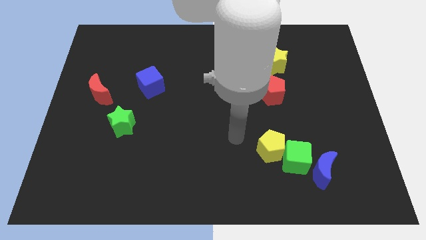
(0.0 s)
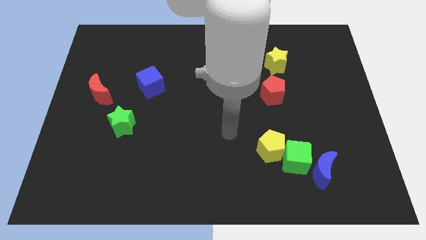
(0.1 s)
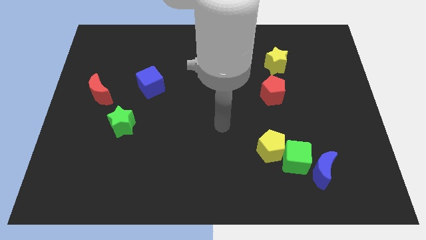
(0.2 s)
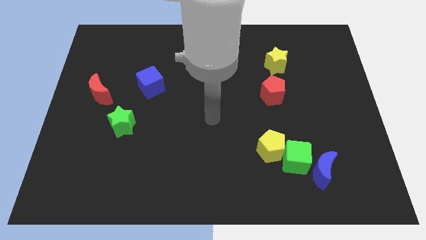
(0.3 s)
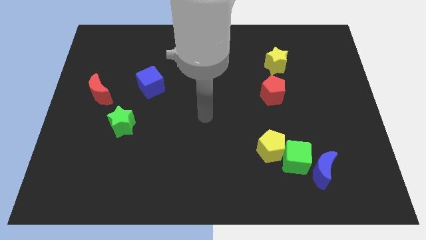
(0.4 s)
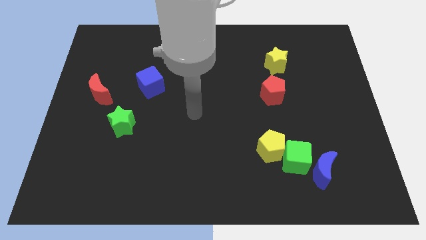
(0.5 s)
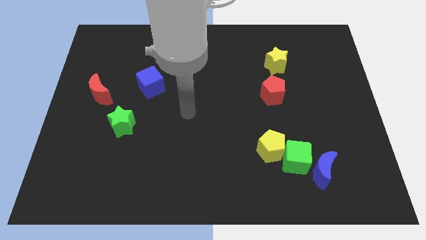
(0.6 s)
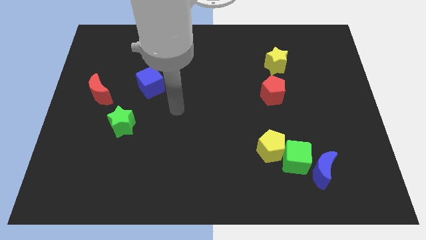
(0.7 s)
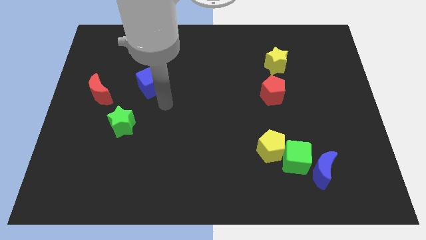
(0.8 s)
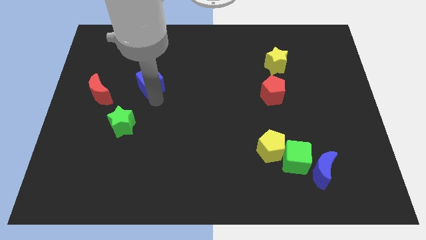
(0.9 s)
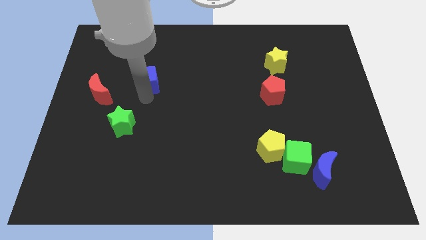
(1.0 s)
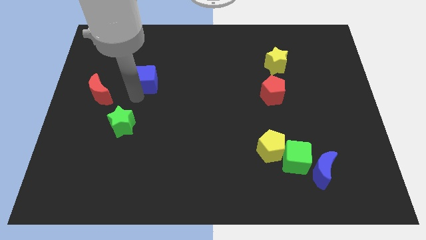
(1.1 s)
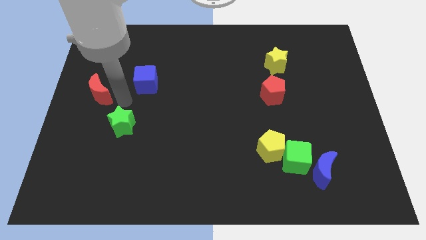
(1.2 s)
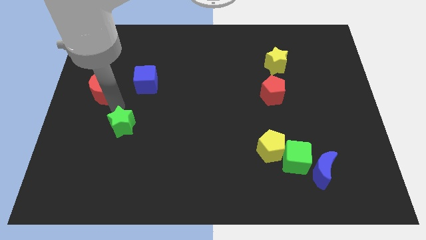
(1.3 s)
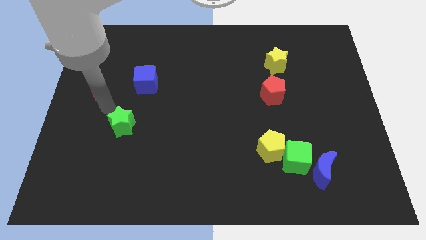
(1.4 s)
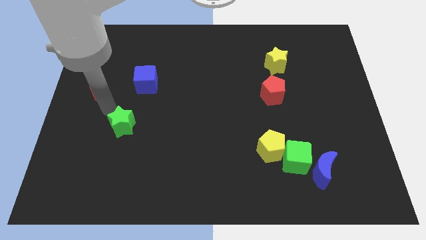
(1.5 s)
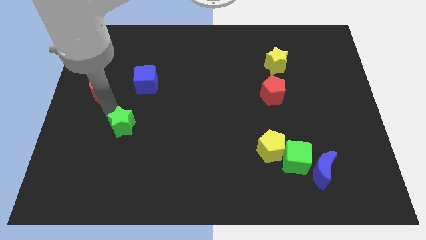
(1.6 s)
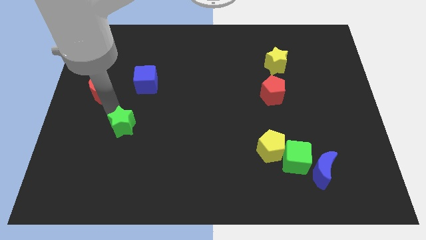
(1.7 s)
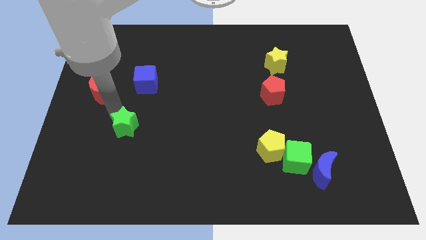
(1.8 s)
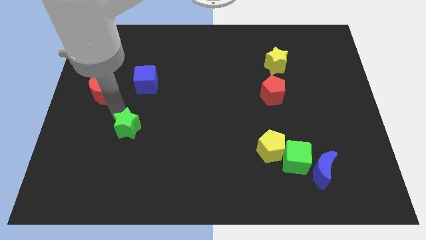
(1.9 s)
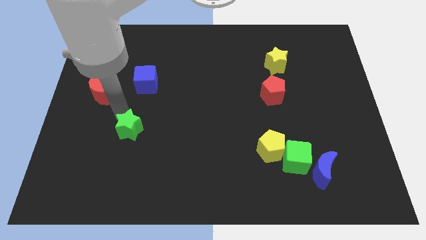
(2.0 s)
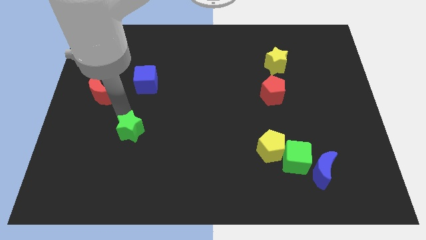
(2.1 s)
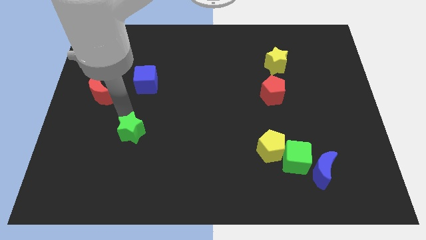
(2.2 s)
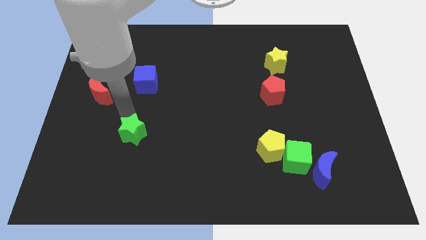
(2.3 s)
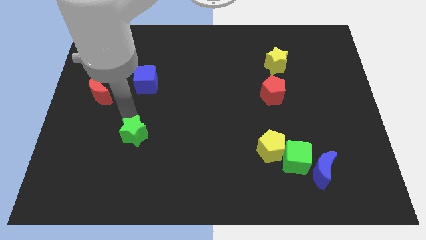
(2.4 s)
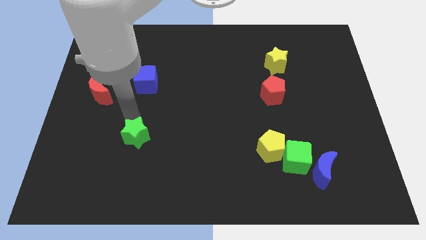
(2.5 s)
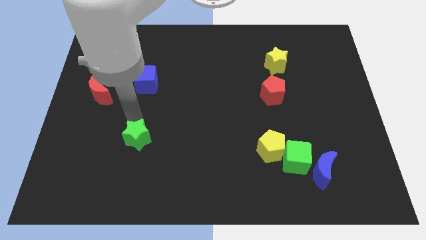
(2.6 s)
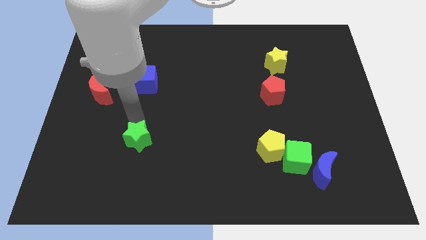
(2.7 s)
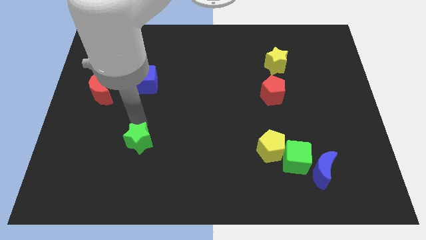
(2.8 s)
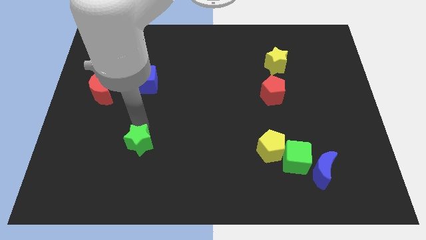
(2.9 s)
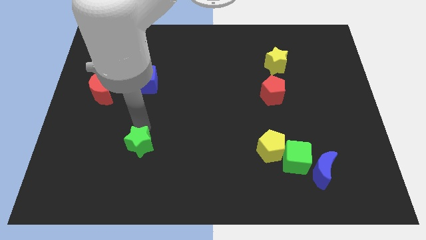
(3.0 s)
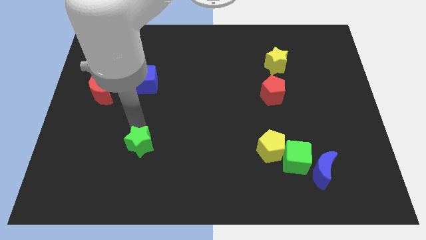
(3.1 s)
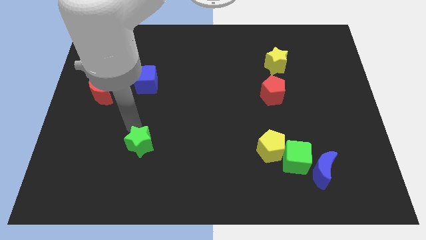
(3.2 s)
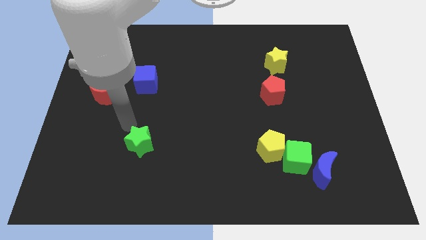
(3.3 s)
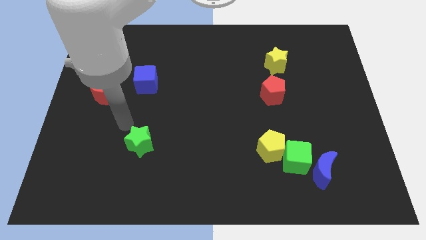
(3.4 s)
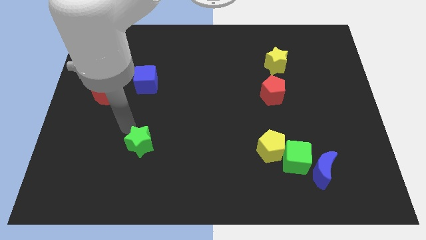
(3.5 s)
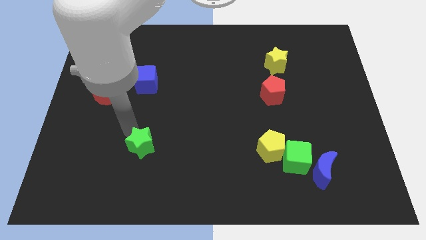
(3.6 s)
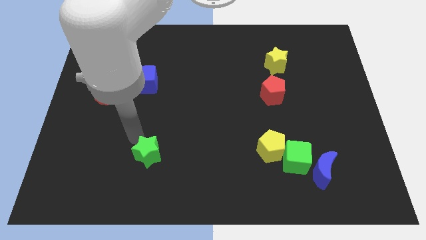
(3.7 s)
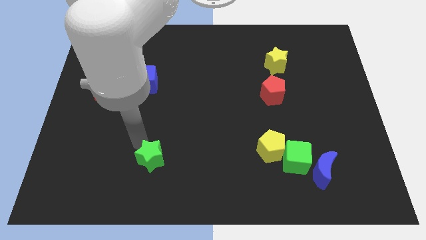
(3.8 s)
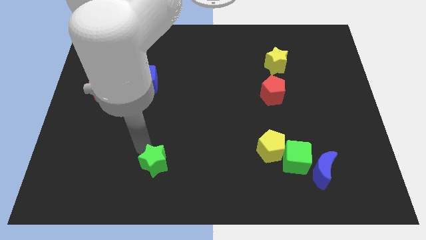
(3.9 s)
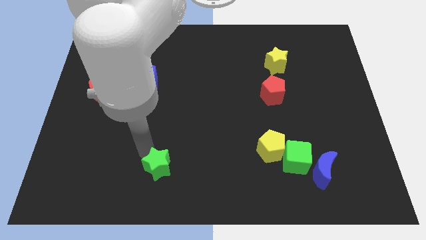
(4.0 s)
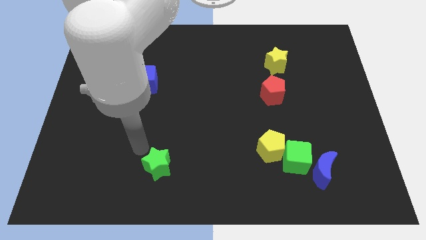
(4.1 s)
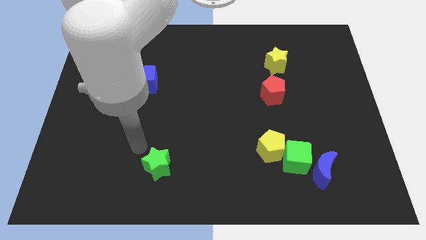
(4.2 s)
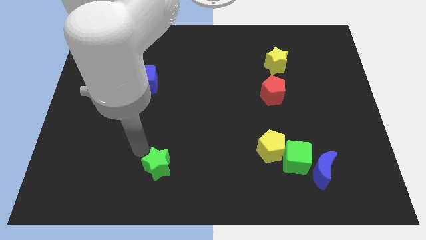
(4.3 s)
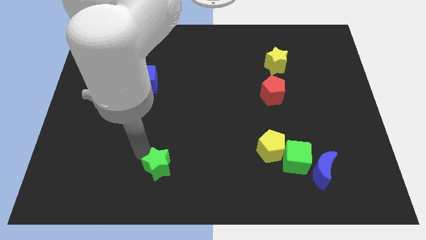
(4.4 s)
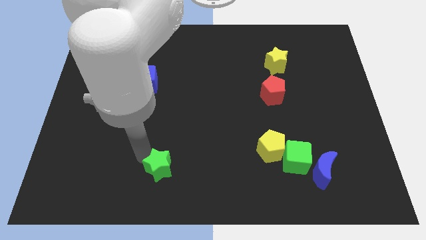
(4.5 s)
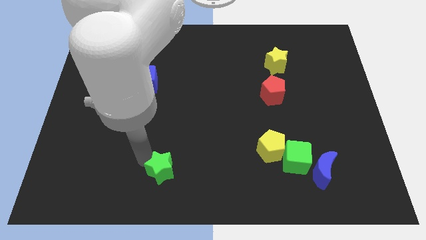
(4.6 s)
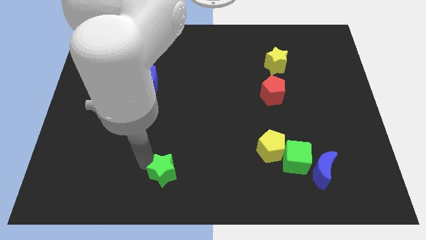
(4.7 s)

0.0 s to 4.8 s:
move the green star to the bottom

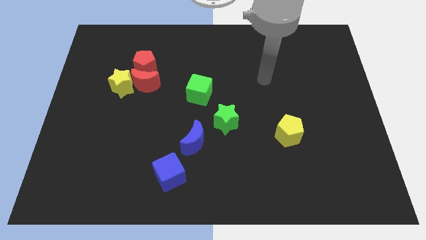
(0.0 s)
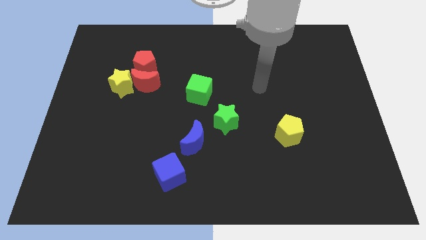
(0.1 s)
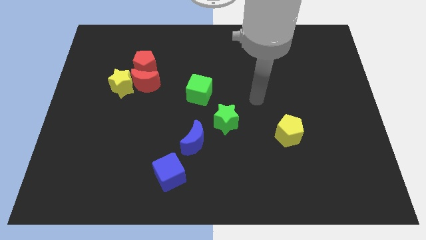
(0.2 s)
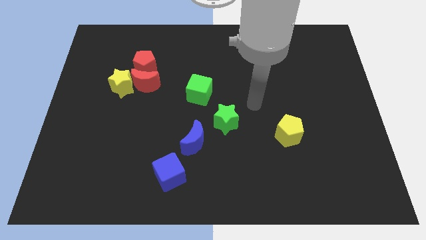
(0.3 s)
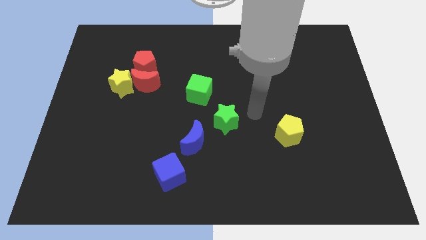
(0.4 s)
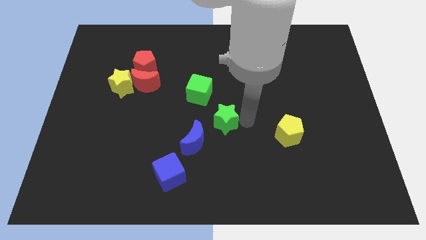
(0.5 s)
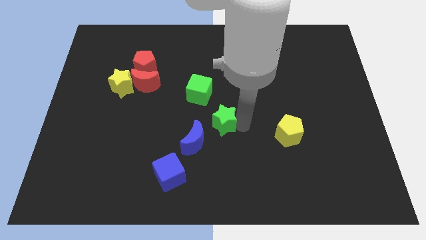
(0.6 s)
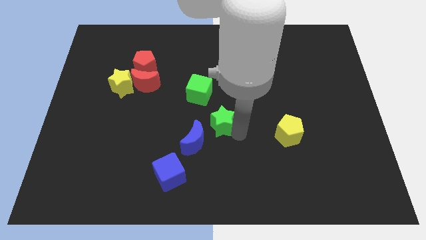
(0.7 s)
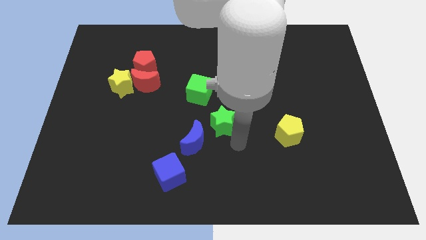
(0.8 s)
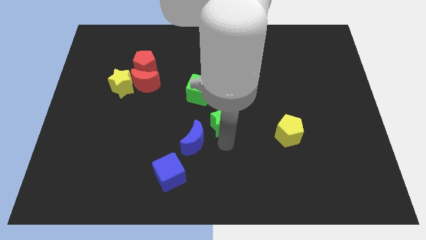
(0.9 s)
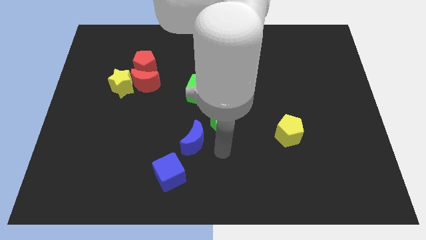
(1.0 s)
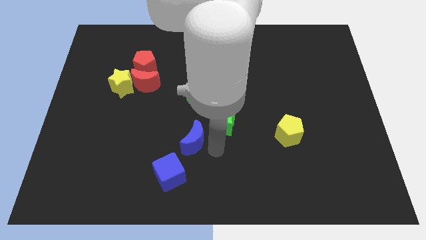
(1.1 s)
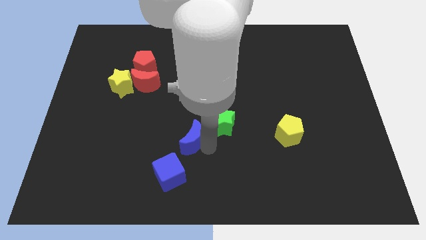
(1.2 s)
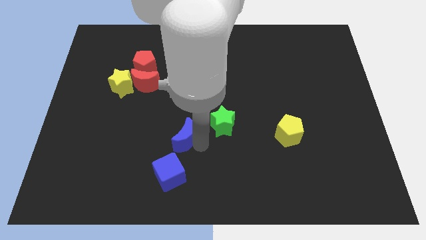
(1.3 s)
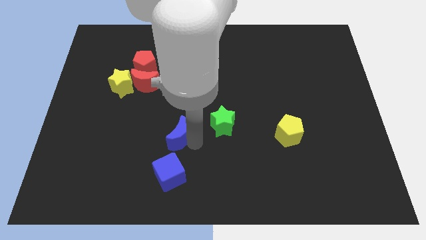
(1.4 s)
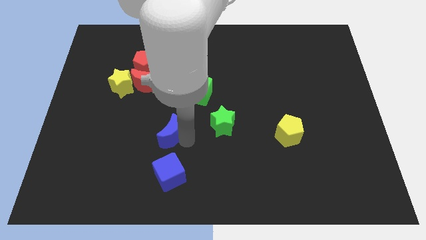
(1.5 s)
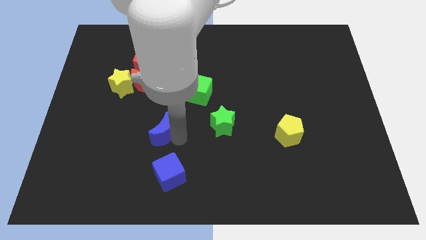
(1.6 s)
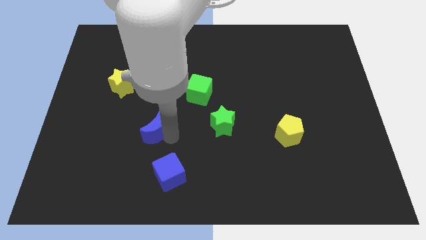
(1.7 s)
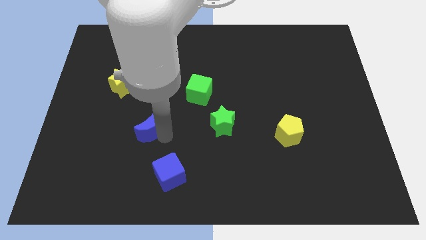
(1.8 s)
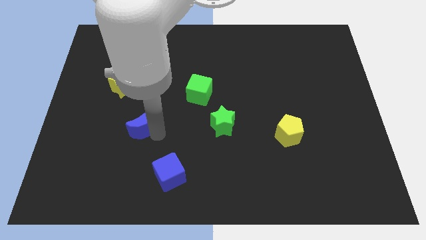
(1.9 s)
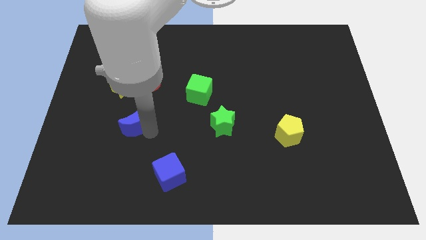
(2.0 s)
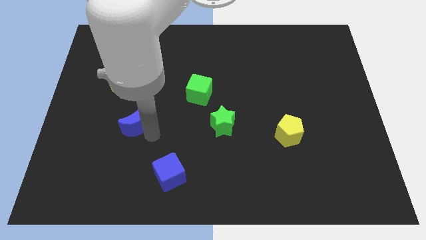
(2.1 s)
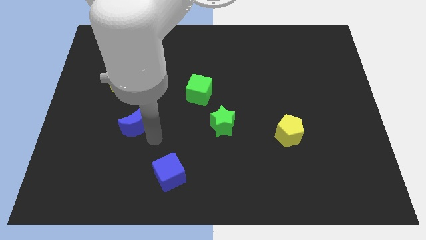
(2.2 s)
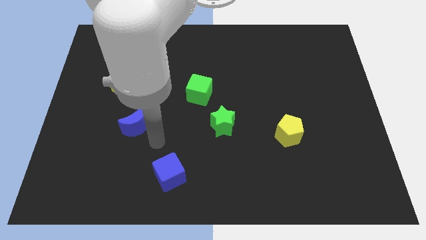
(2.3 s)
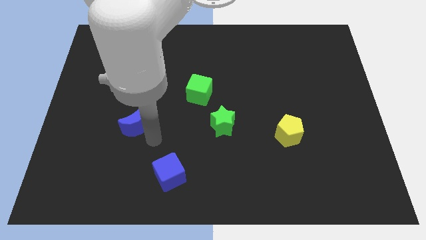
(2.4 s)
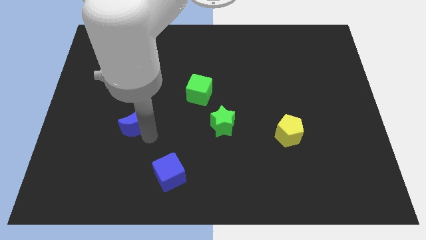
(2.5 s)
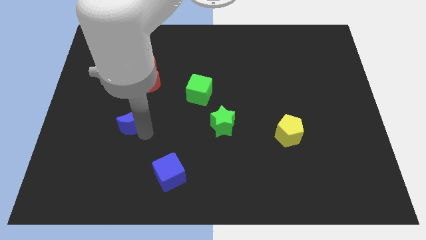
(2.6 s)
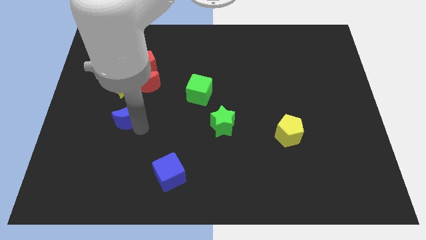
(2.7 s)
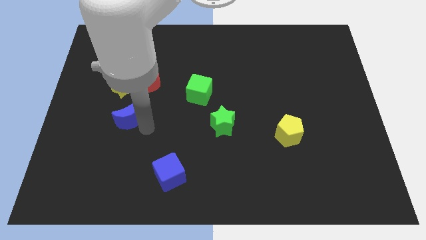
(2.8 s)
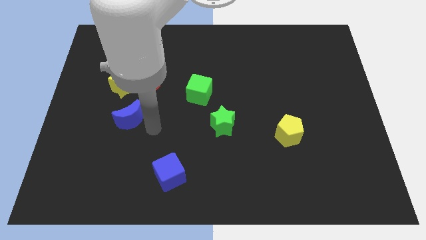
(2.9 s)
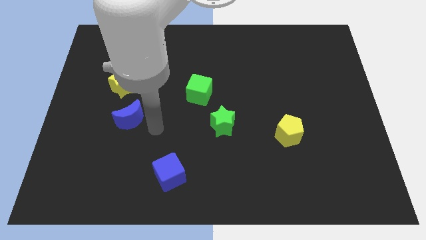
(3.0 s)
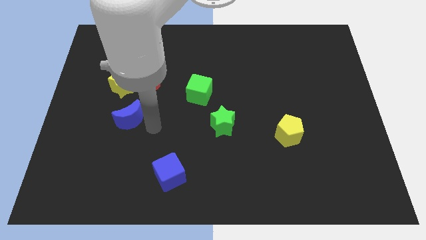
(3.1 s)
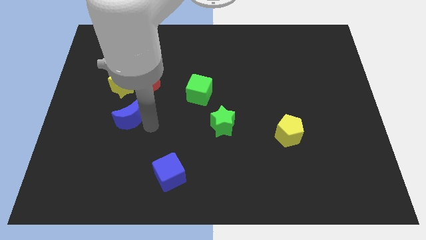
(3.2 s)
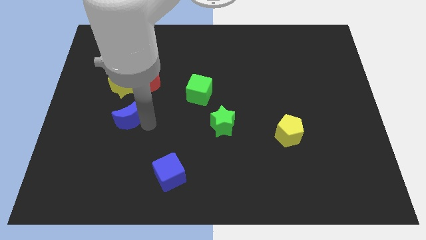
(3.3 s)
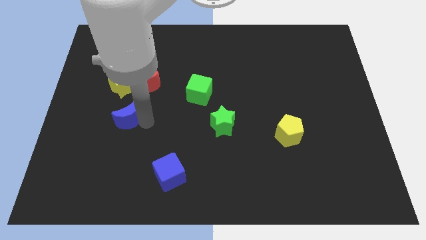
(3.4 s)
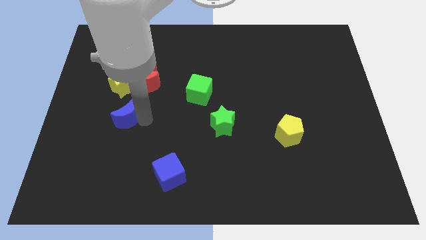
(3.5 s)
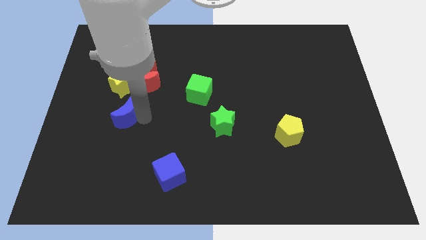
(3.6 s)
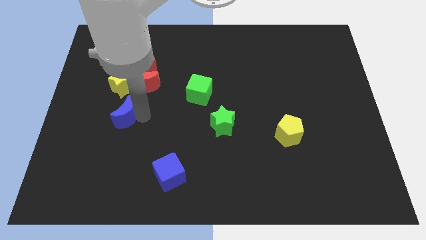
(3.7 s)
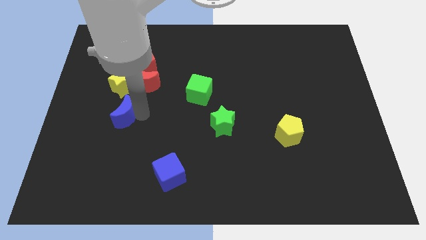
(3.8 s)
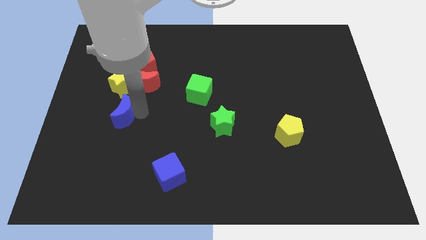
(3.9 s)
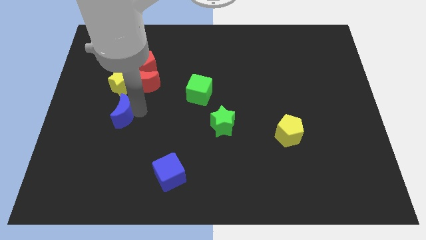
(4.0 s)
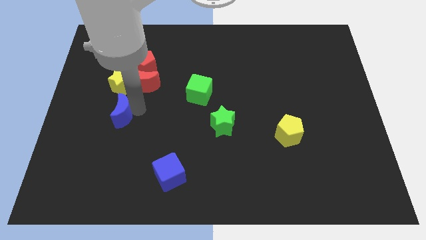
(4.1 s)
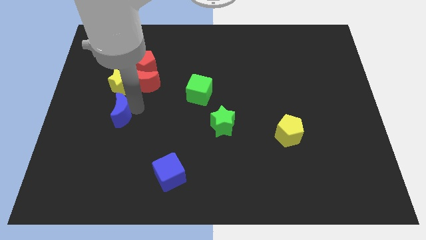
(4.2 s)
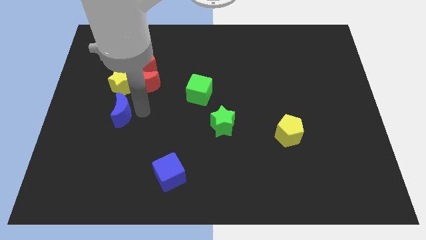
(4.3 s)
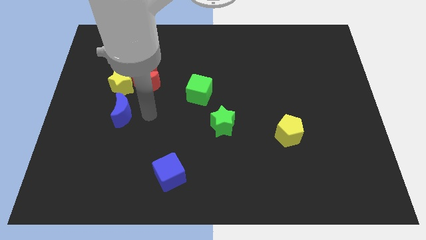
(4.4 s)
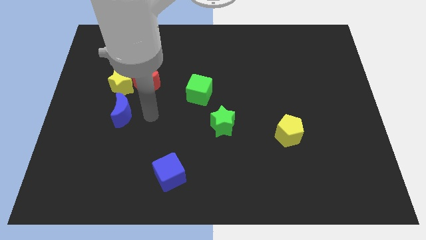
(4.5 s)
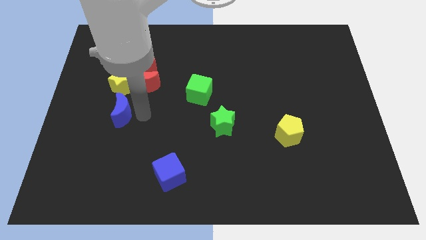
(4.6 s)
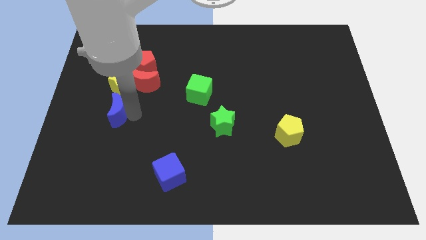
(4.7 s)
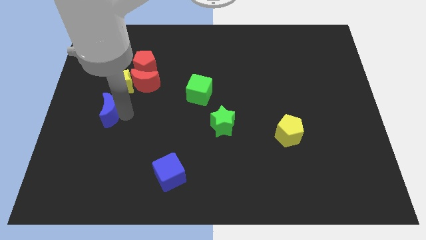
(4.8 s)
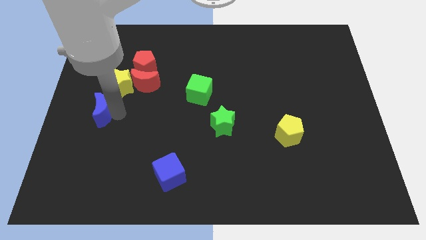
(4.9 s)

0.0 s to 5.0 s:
move the blue moon to the center left
